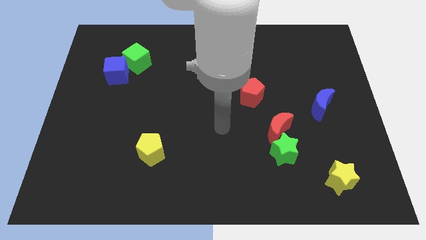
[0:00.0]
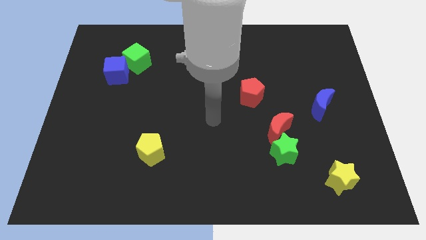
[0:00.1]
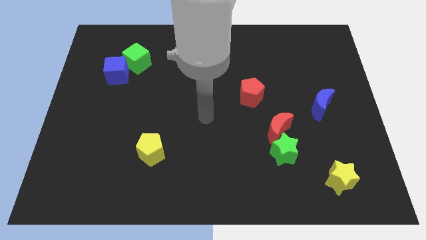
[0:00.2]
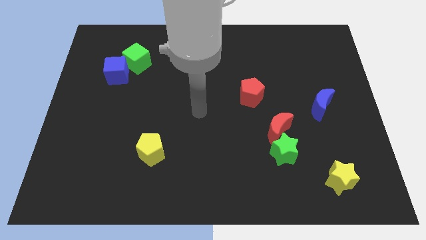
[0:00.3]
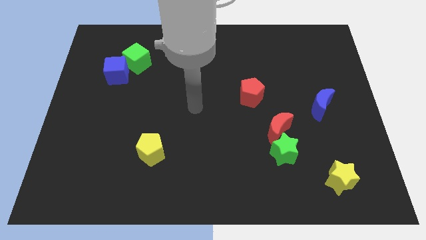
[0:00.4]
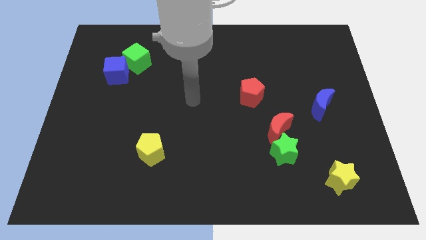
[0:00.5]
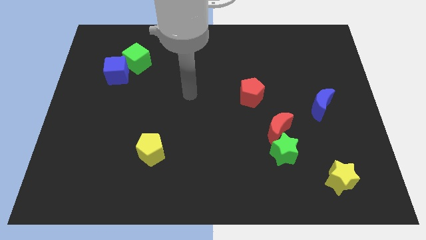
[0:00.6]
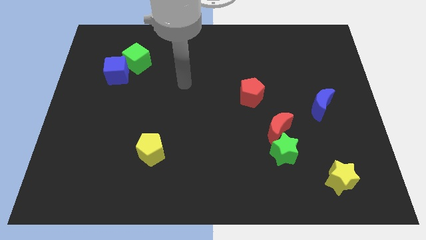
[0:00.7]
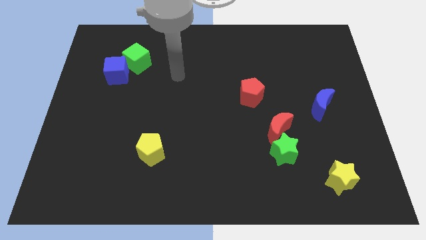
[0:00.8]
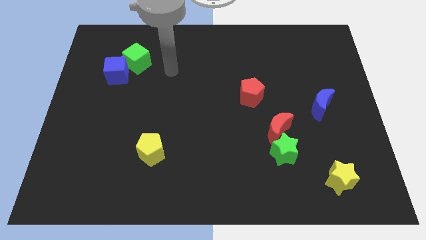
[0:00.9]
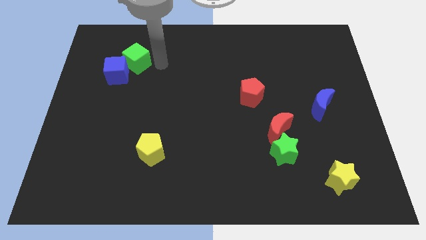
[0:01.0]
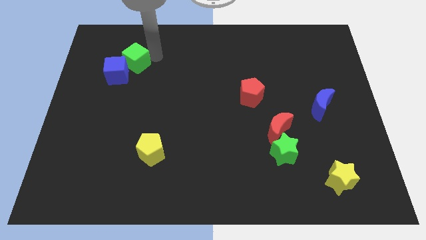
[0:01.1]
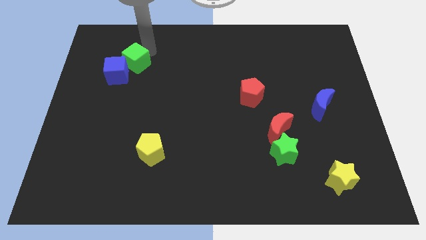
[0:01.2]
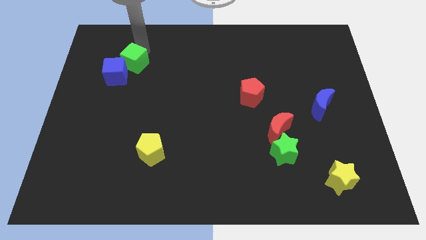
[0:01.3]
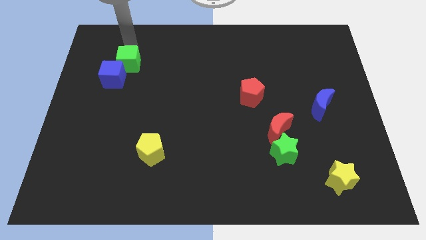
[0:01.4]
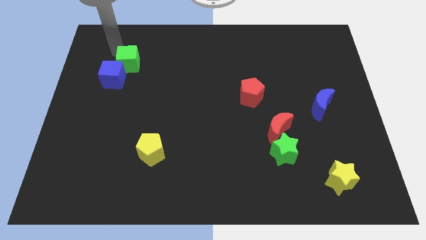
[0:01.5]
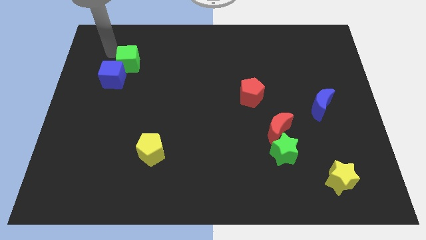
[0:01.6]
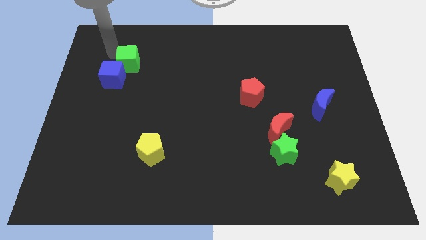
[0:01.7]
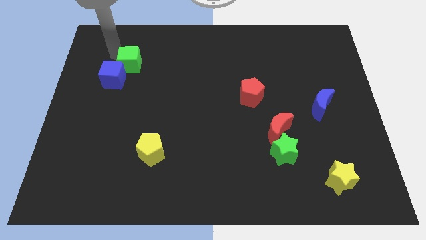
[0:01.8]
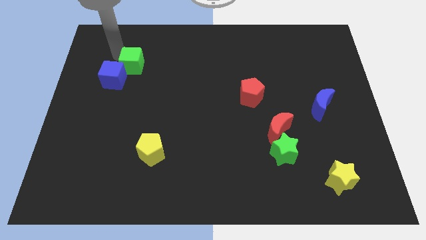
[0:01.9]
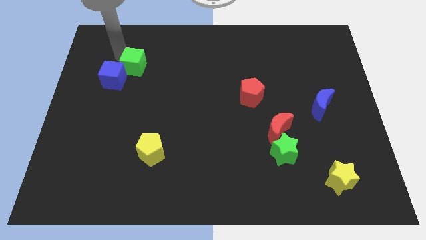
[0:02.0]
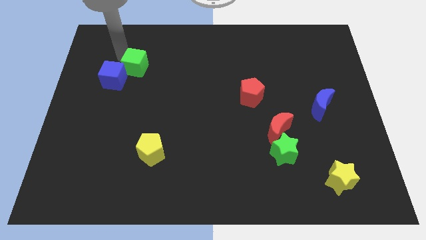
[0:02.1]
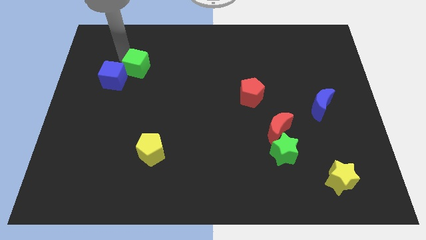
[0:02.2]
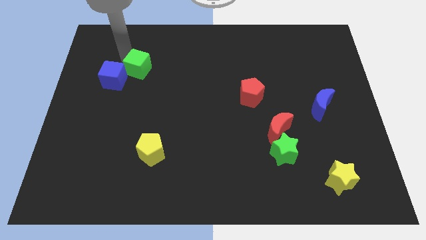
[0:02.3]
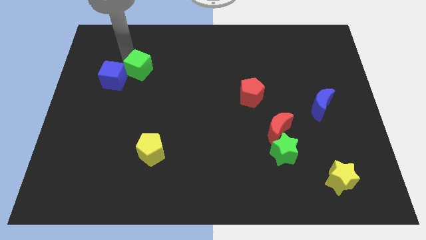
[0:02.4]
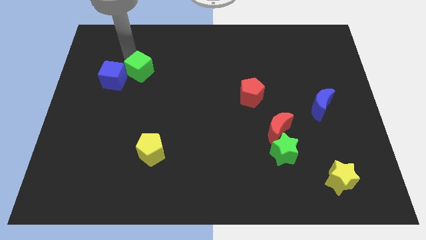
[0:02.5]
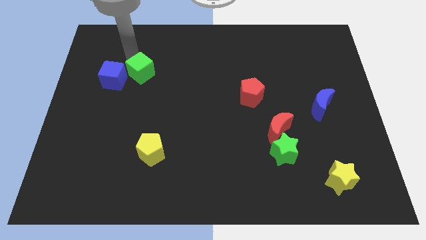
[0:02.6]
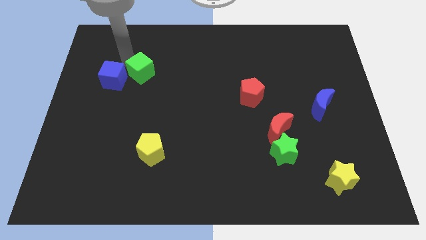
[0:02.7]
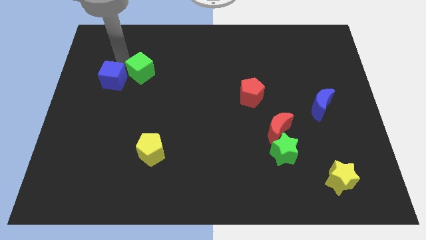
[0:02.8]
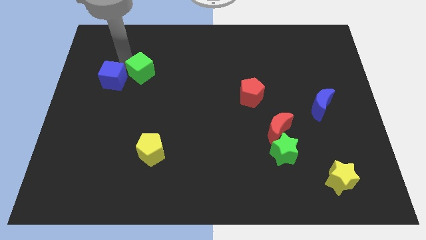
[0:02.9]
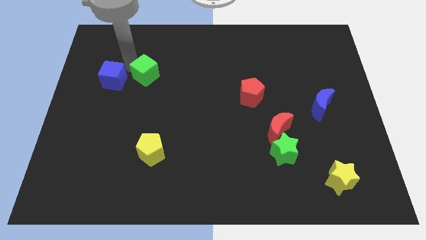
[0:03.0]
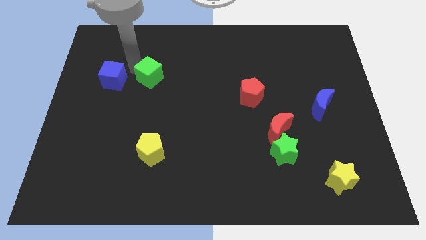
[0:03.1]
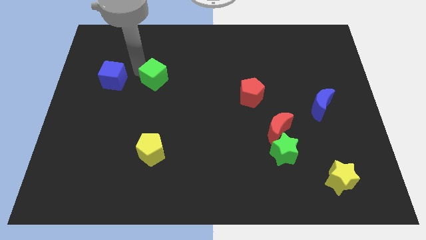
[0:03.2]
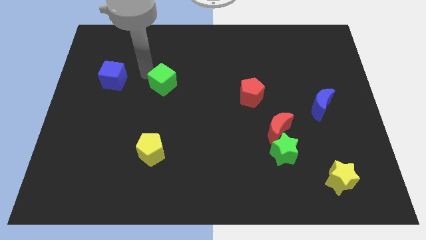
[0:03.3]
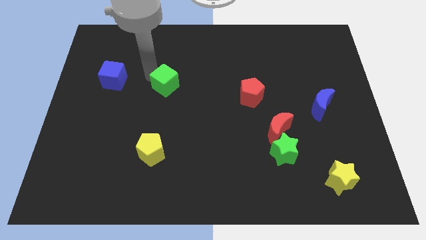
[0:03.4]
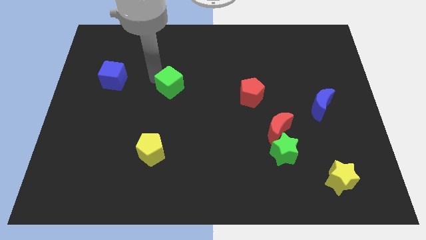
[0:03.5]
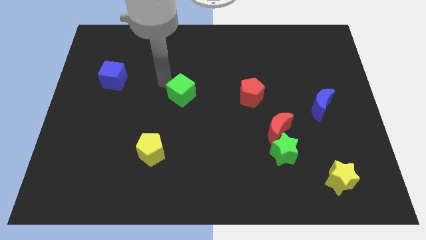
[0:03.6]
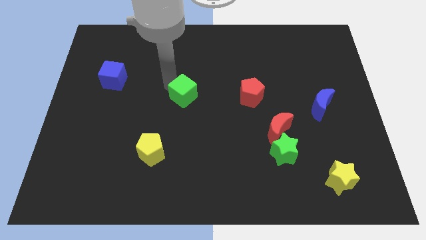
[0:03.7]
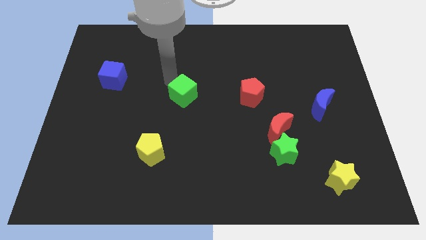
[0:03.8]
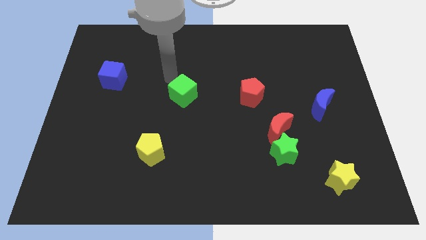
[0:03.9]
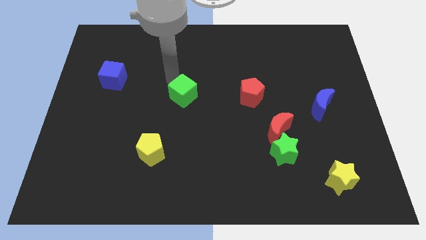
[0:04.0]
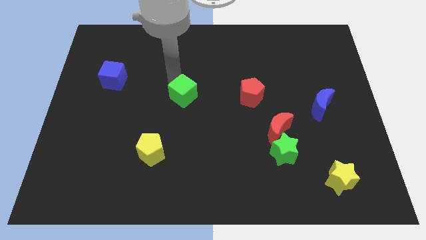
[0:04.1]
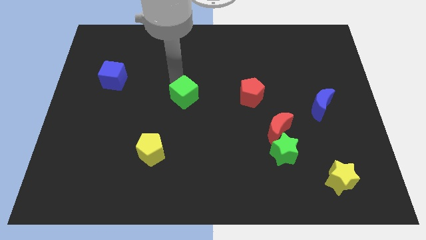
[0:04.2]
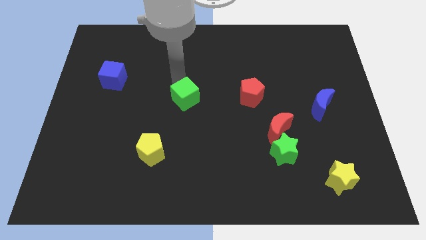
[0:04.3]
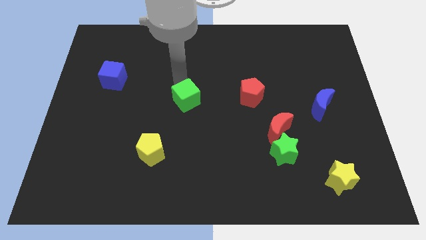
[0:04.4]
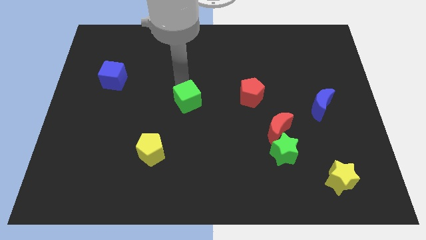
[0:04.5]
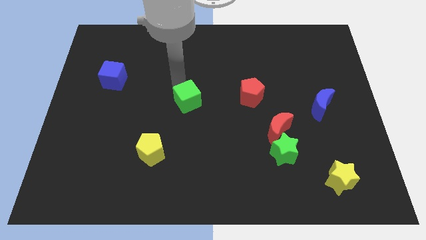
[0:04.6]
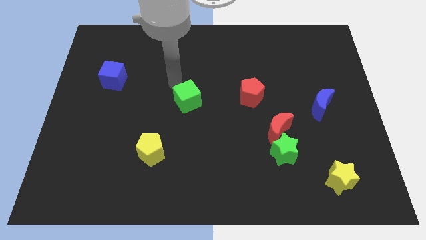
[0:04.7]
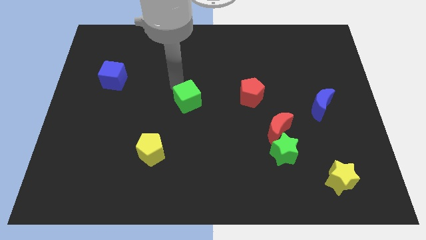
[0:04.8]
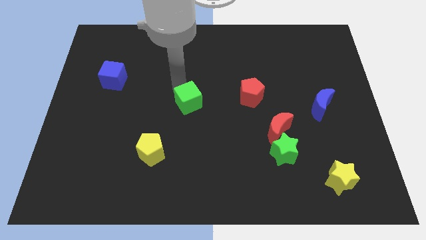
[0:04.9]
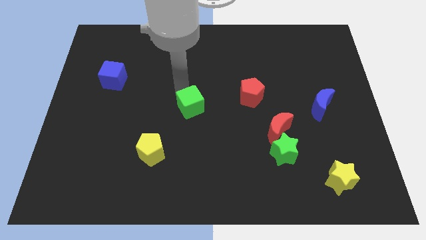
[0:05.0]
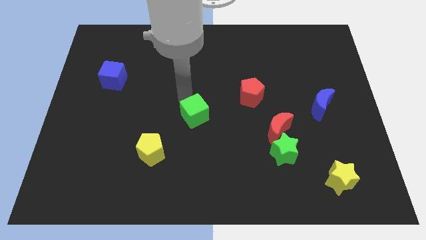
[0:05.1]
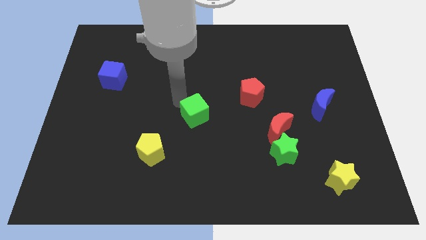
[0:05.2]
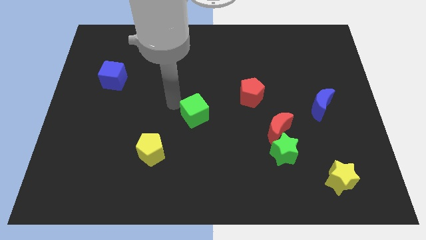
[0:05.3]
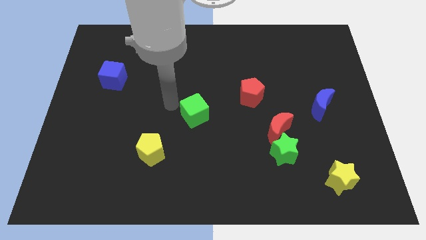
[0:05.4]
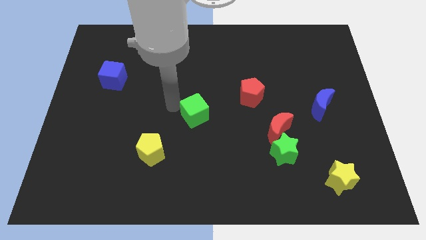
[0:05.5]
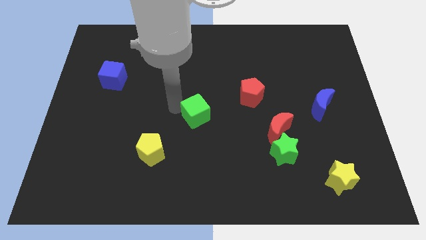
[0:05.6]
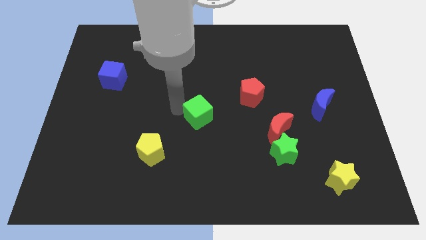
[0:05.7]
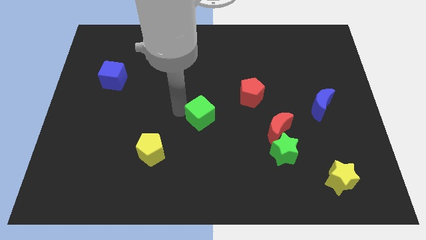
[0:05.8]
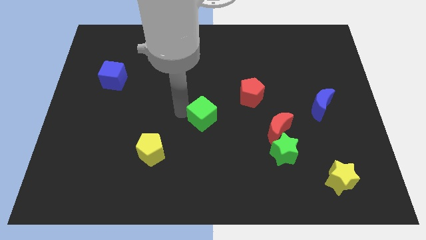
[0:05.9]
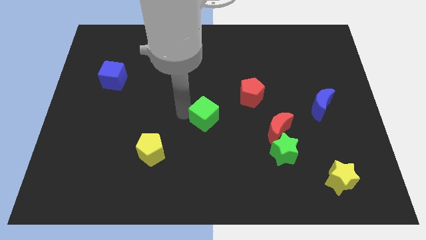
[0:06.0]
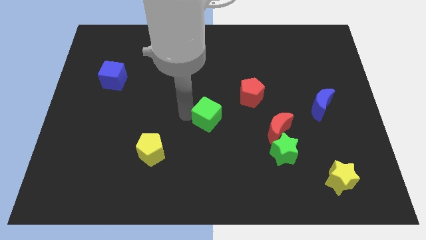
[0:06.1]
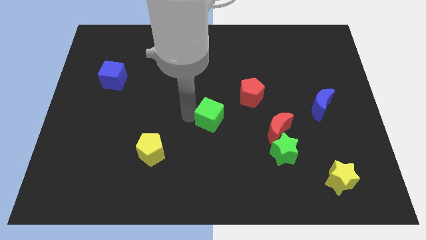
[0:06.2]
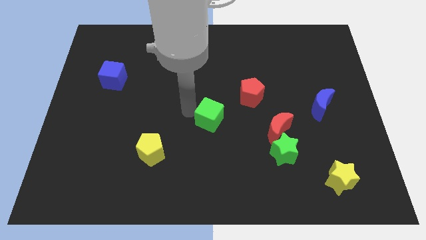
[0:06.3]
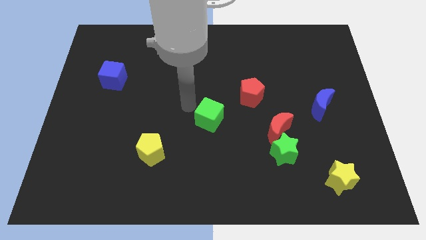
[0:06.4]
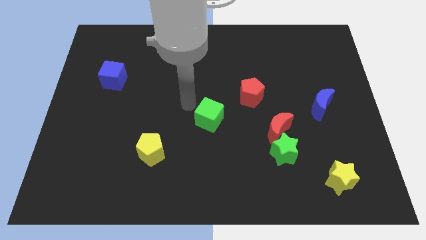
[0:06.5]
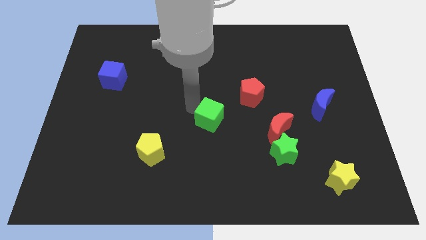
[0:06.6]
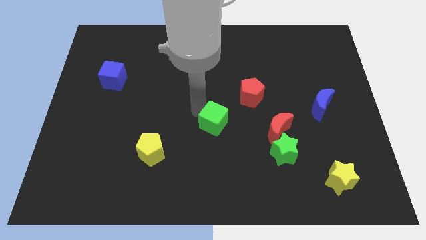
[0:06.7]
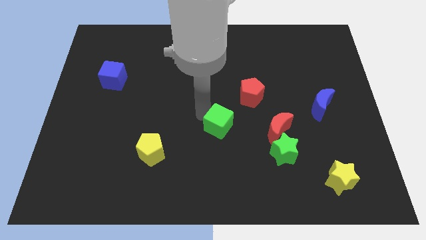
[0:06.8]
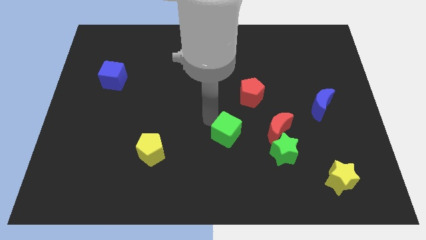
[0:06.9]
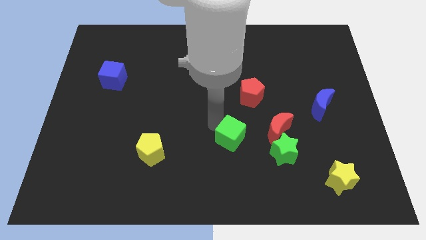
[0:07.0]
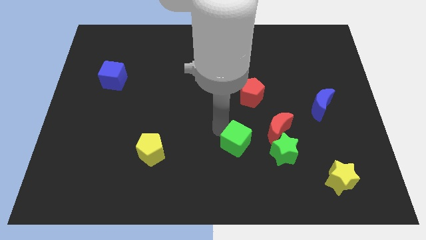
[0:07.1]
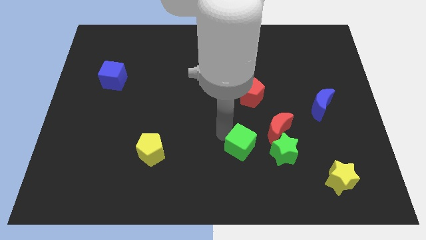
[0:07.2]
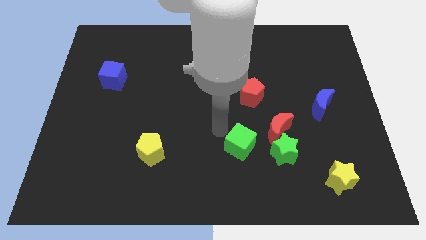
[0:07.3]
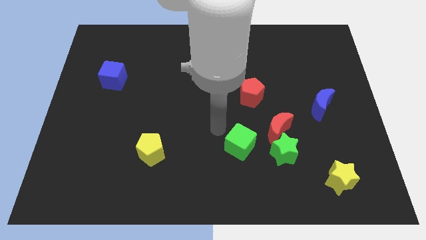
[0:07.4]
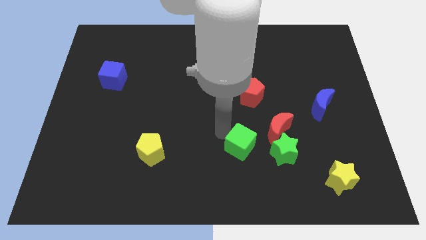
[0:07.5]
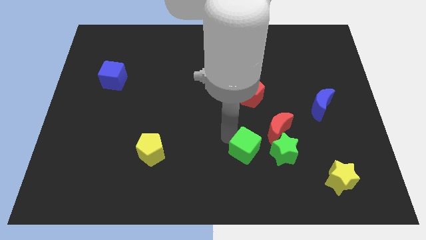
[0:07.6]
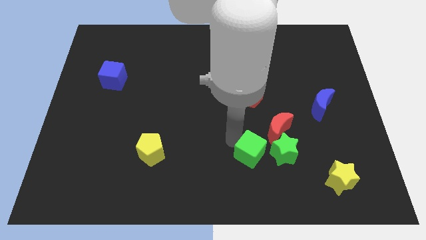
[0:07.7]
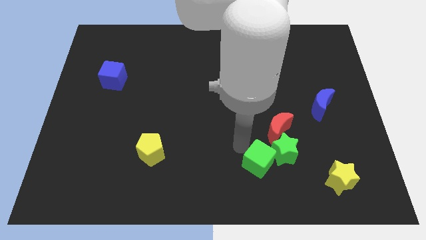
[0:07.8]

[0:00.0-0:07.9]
push the green cube below the red moon

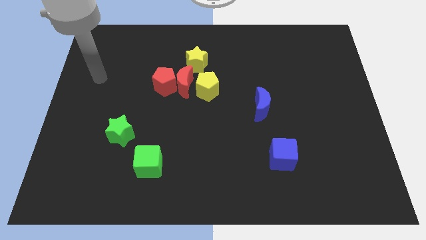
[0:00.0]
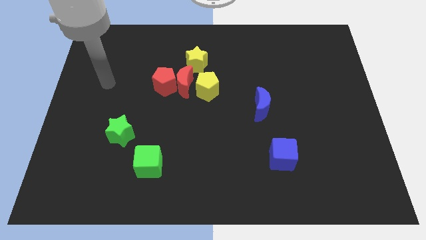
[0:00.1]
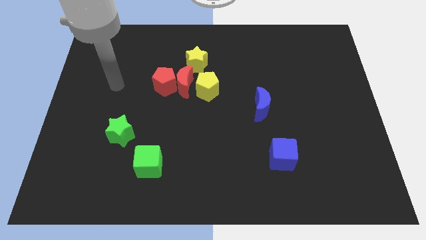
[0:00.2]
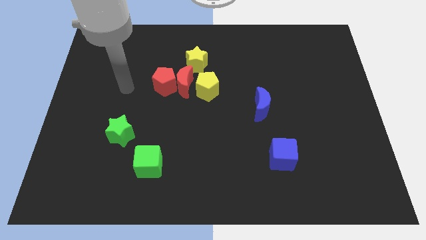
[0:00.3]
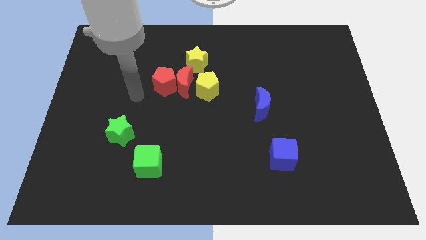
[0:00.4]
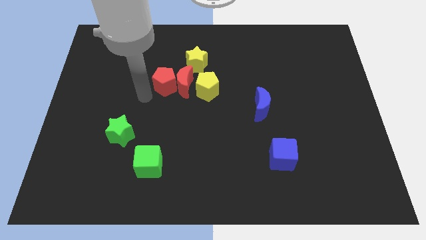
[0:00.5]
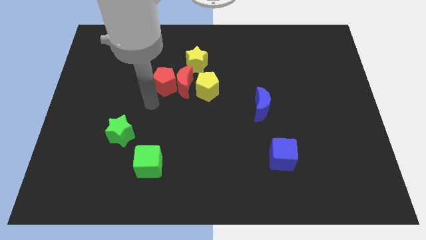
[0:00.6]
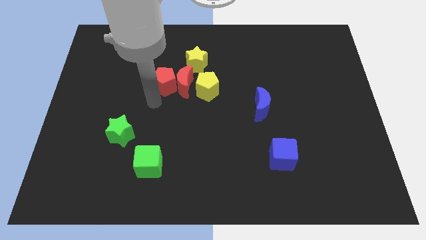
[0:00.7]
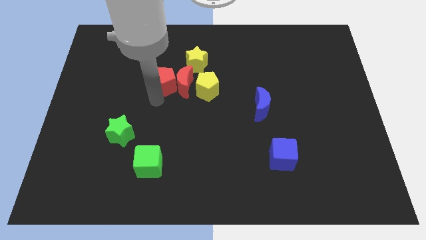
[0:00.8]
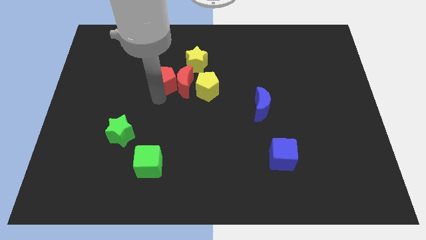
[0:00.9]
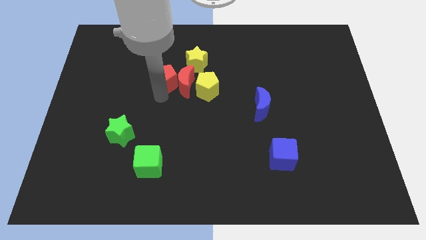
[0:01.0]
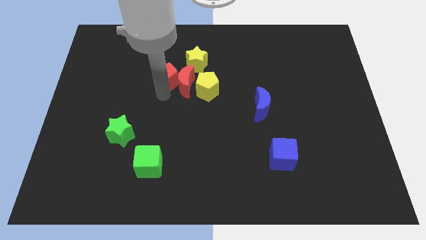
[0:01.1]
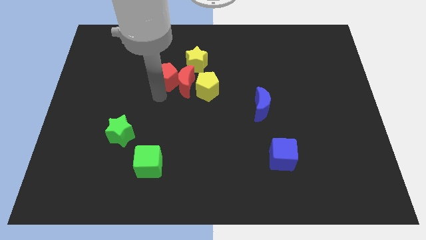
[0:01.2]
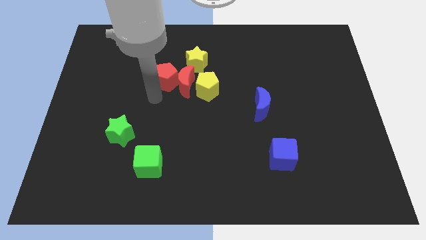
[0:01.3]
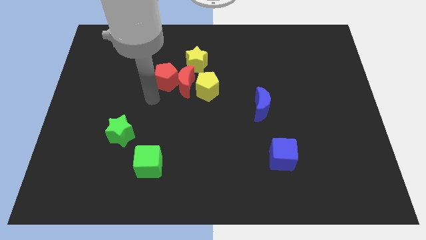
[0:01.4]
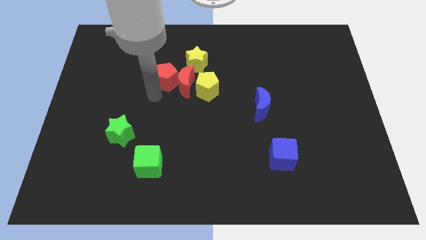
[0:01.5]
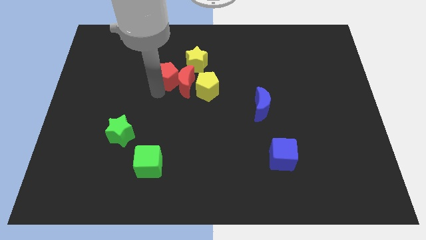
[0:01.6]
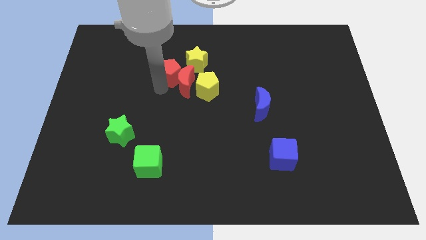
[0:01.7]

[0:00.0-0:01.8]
push the red pentagon to the top of the red moon
